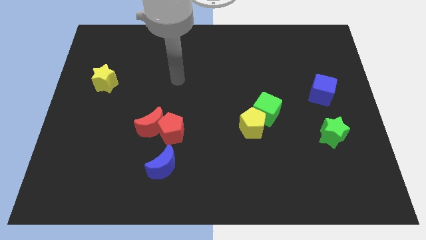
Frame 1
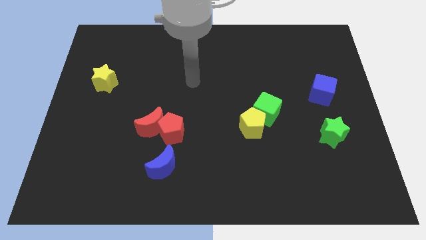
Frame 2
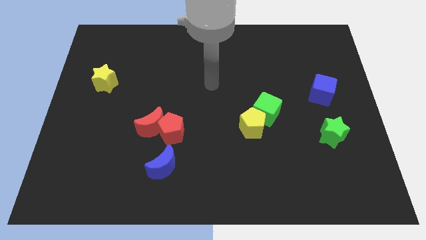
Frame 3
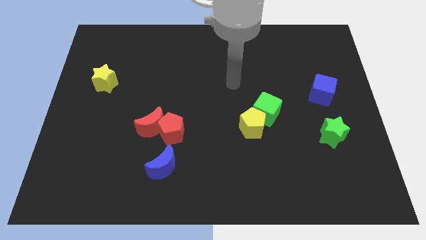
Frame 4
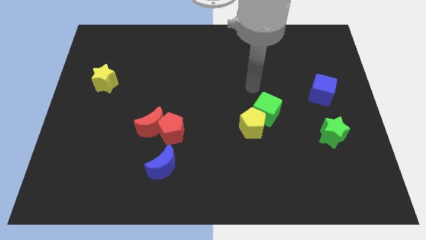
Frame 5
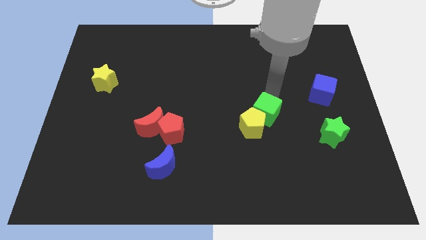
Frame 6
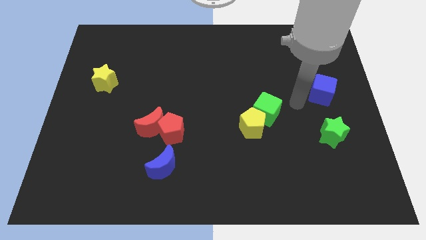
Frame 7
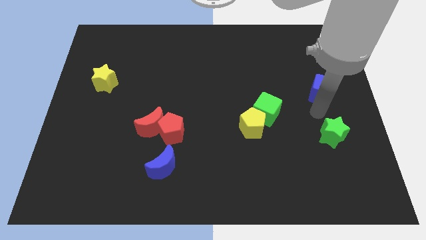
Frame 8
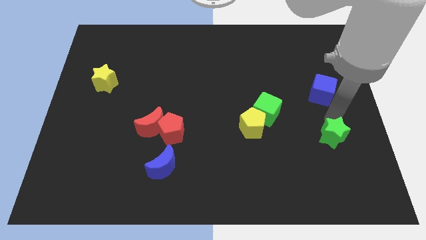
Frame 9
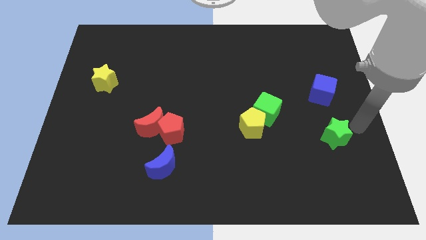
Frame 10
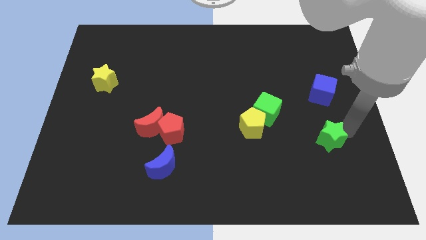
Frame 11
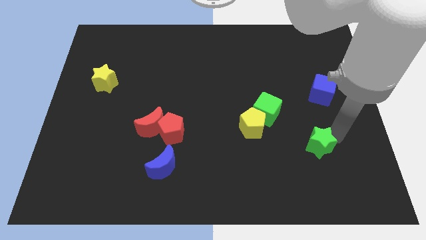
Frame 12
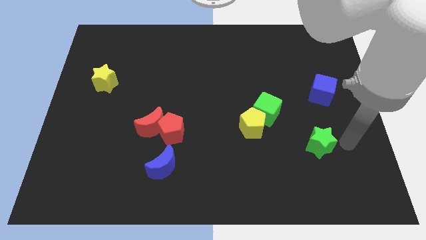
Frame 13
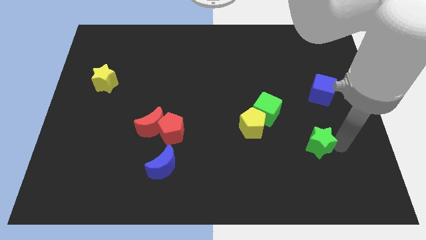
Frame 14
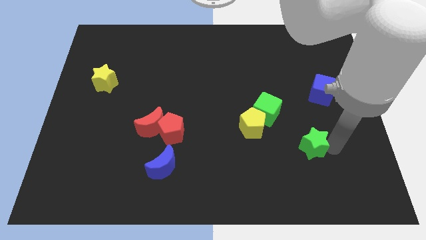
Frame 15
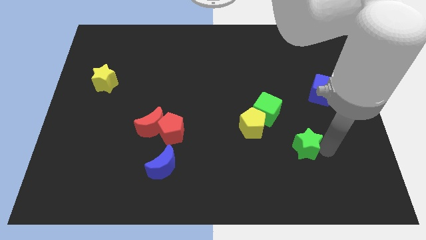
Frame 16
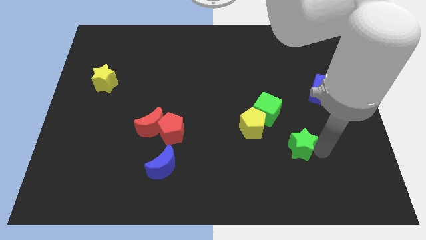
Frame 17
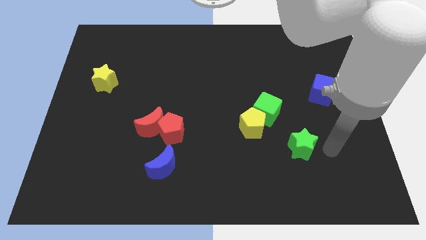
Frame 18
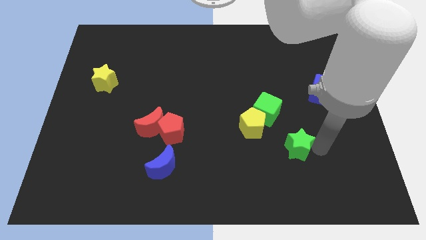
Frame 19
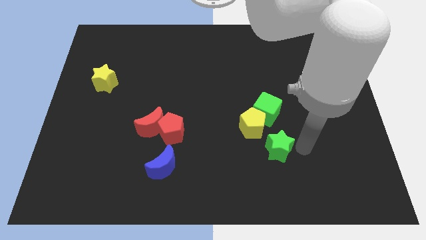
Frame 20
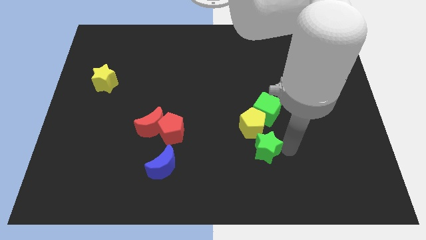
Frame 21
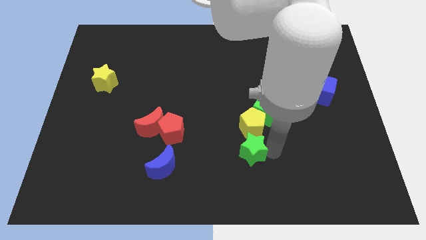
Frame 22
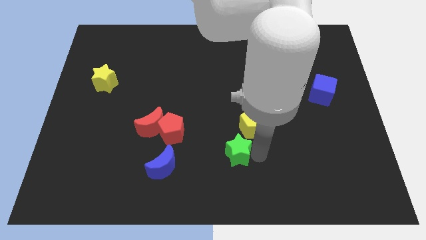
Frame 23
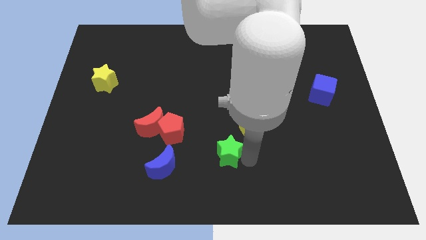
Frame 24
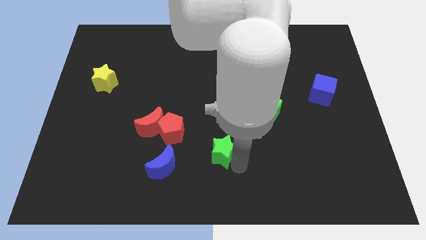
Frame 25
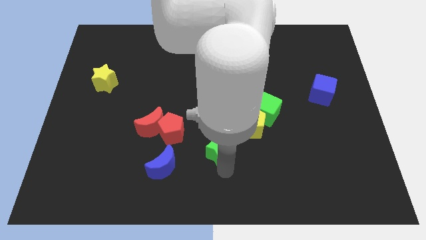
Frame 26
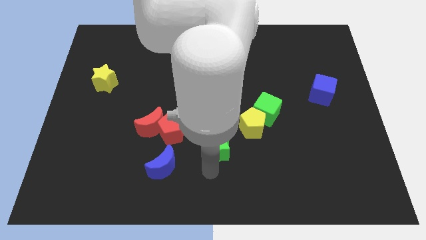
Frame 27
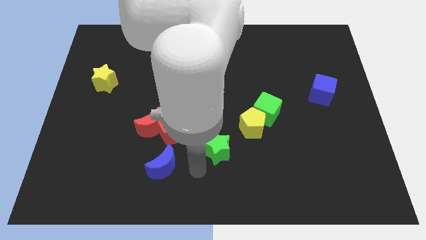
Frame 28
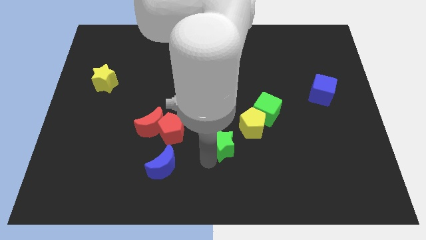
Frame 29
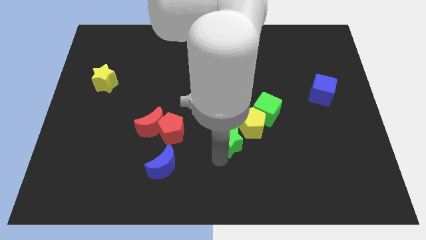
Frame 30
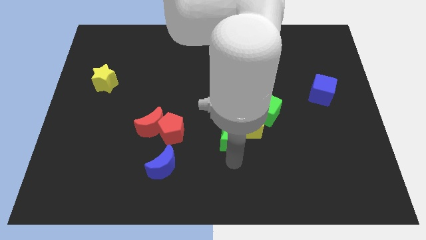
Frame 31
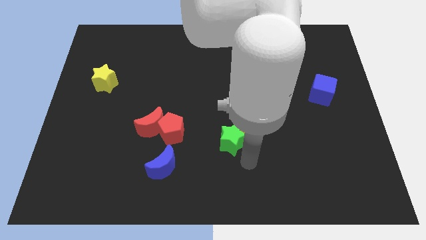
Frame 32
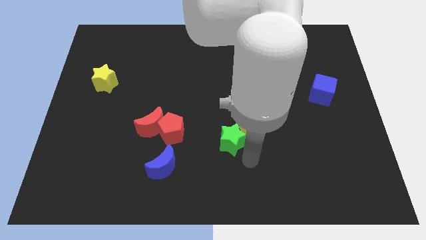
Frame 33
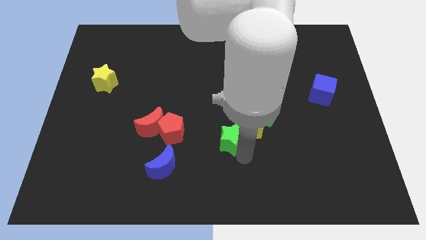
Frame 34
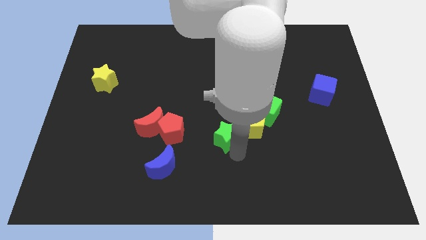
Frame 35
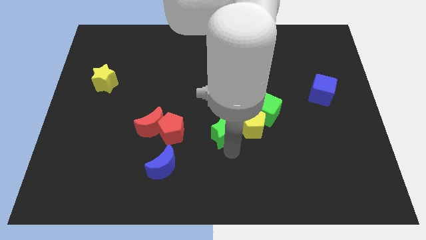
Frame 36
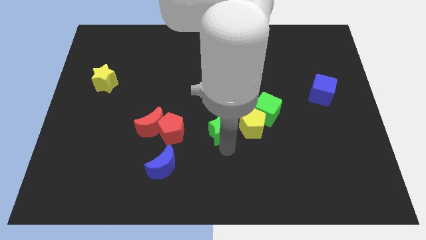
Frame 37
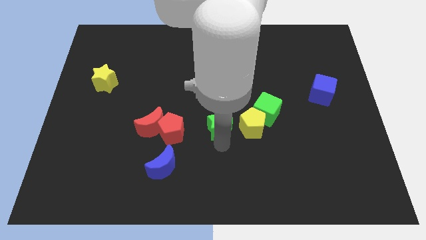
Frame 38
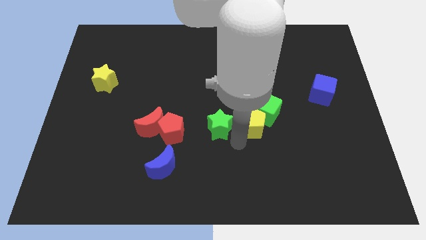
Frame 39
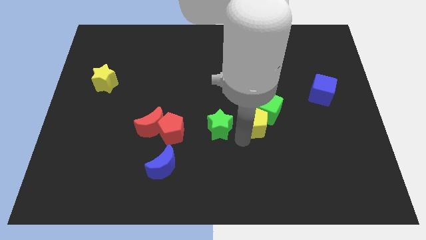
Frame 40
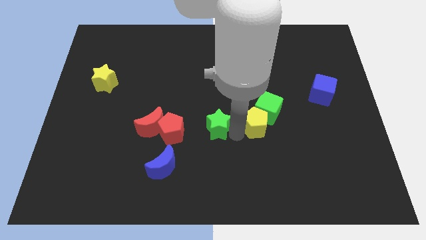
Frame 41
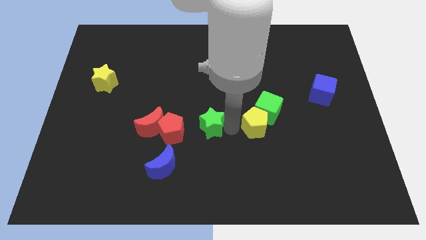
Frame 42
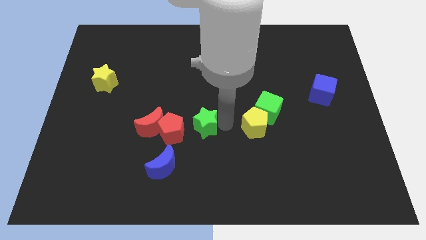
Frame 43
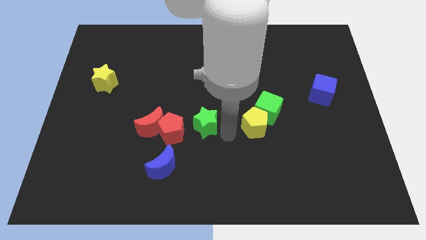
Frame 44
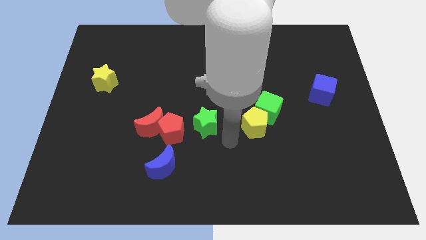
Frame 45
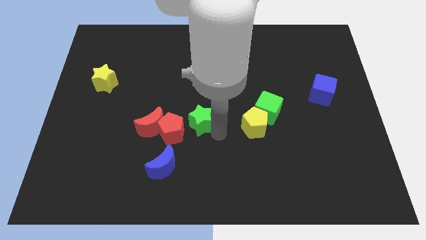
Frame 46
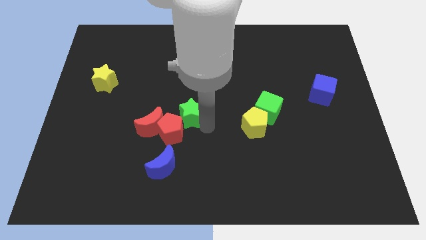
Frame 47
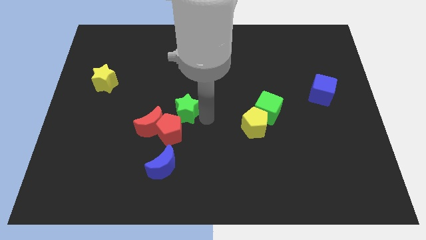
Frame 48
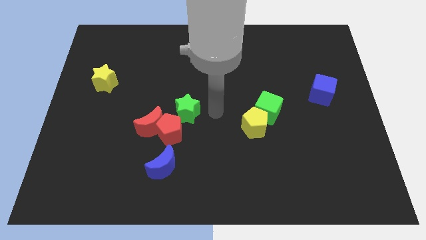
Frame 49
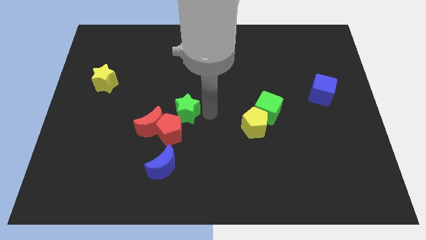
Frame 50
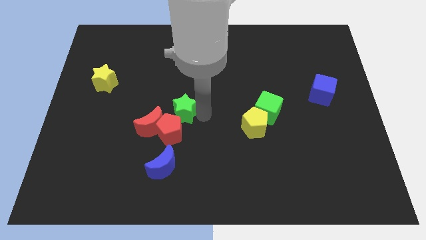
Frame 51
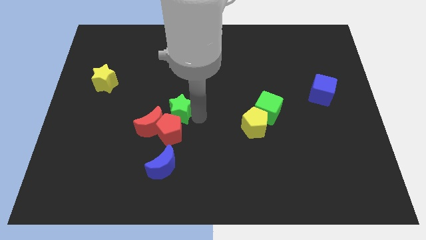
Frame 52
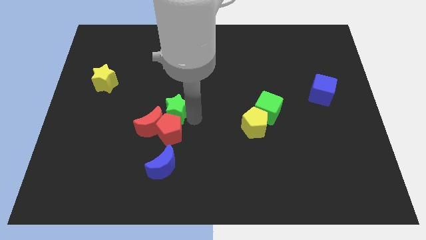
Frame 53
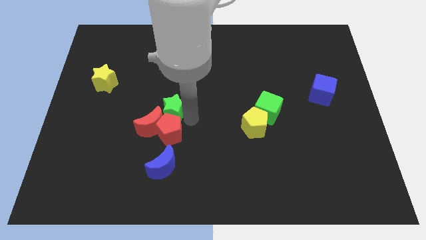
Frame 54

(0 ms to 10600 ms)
push the green star close to the red moon

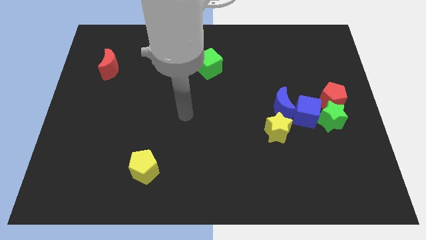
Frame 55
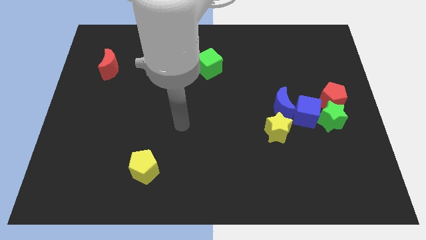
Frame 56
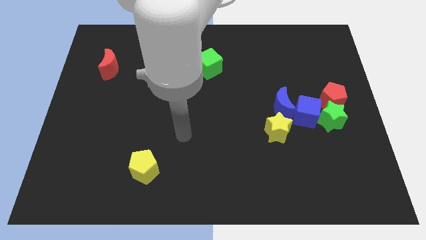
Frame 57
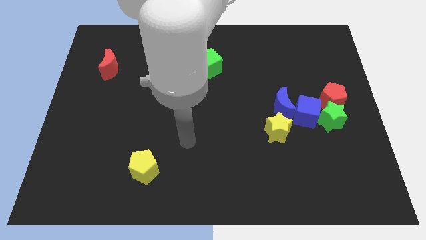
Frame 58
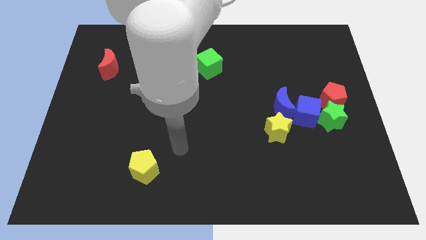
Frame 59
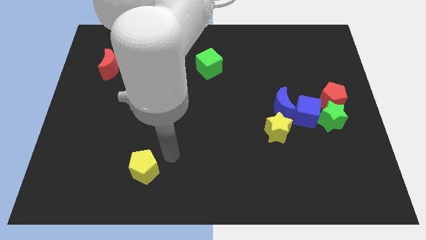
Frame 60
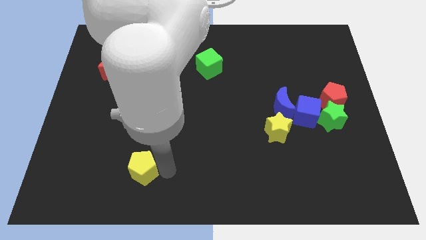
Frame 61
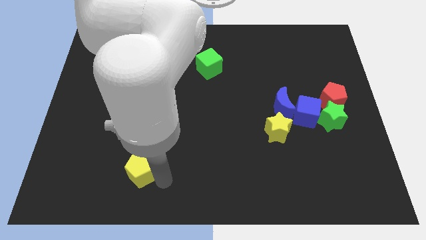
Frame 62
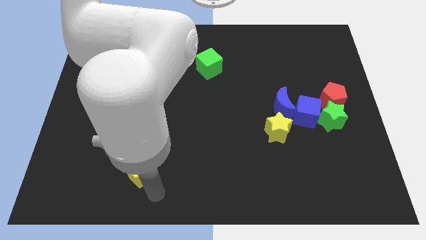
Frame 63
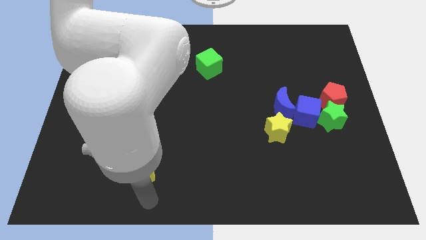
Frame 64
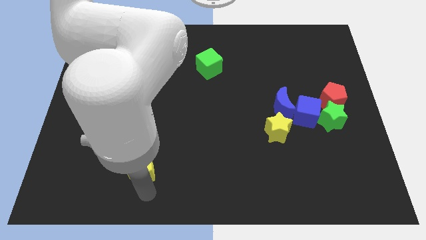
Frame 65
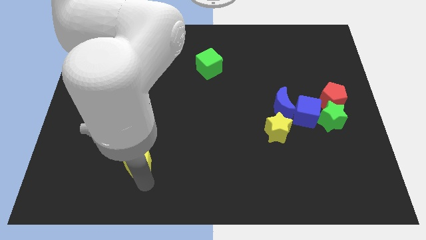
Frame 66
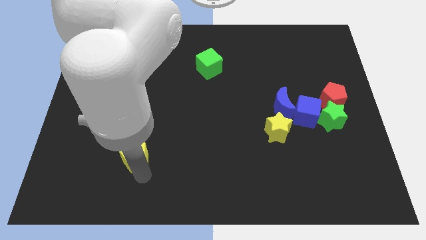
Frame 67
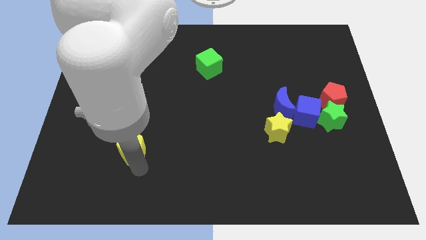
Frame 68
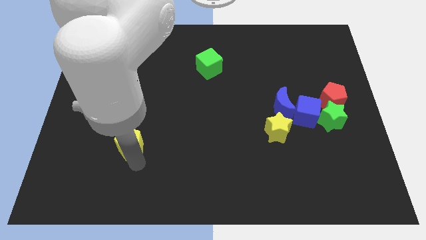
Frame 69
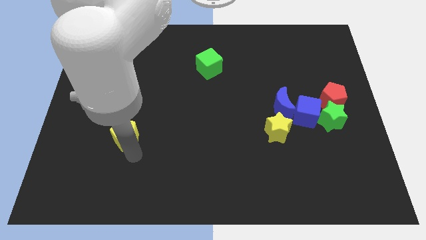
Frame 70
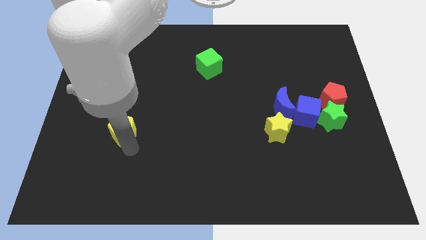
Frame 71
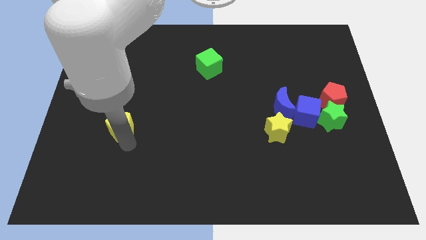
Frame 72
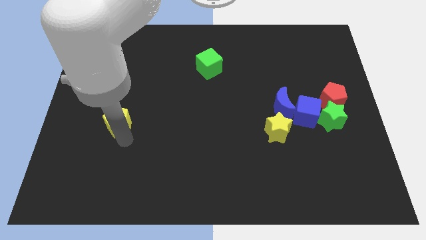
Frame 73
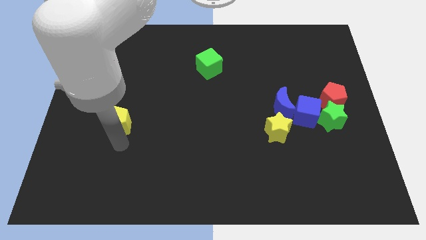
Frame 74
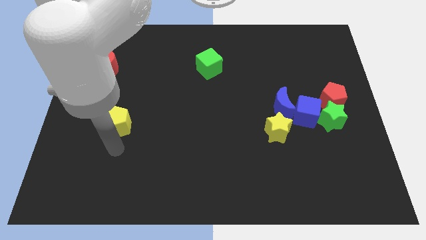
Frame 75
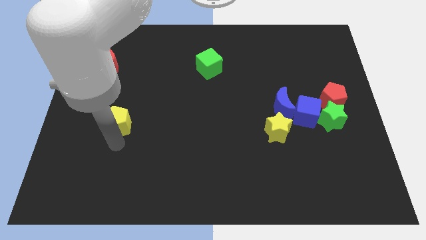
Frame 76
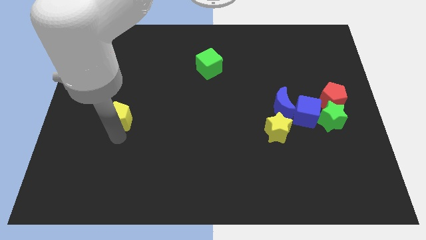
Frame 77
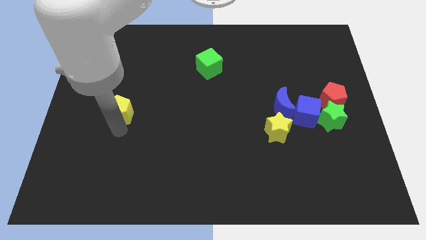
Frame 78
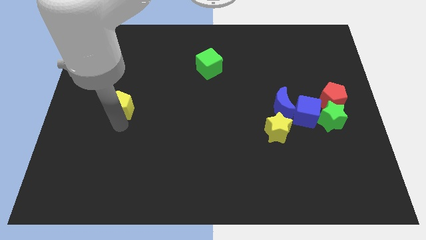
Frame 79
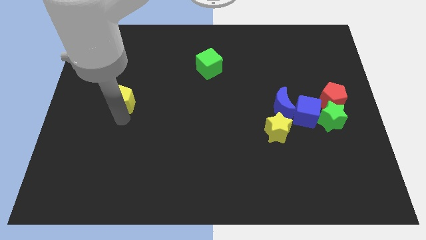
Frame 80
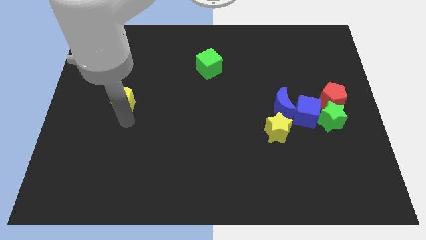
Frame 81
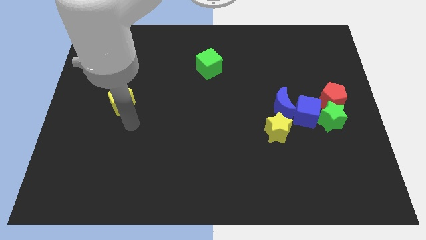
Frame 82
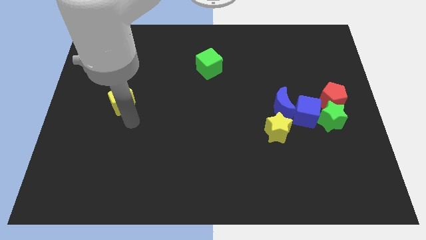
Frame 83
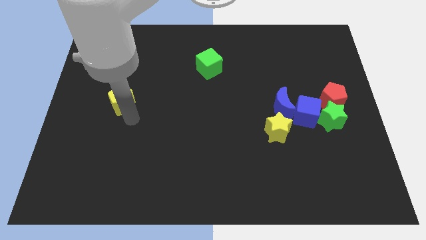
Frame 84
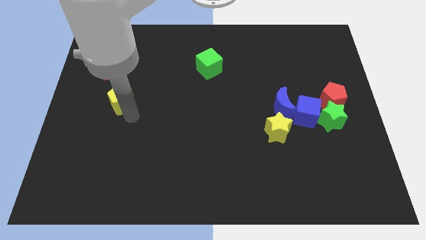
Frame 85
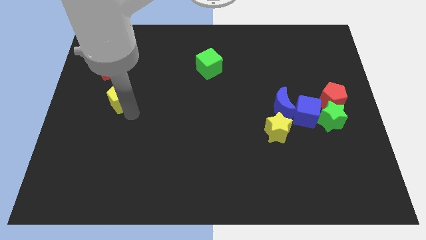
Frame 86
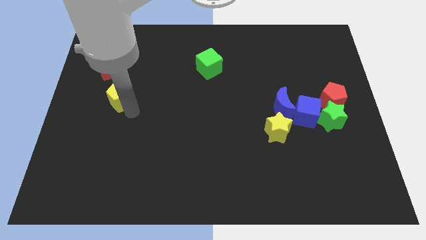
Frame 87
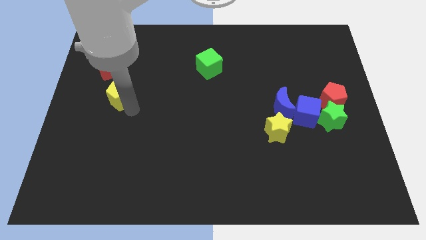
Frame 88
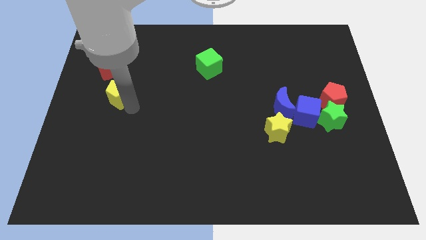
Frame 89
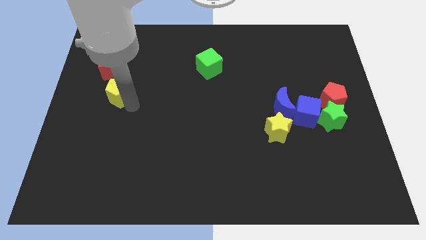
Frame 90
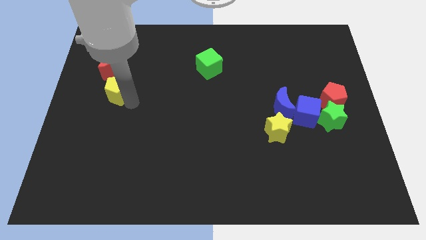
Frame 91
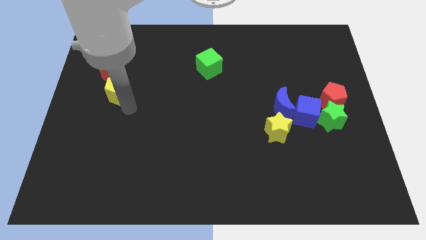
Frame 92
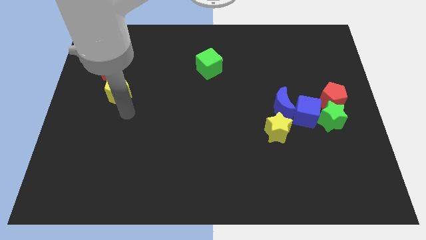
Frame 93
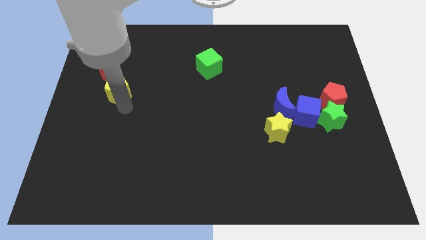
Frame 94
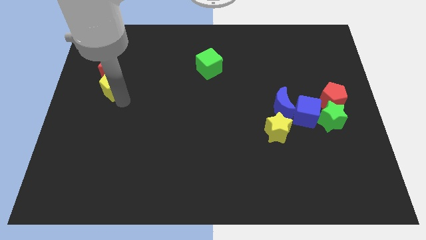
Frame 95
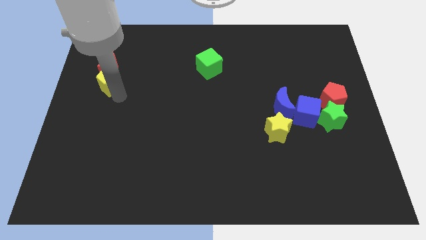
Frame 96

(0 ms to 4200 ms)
move the yellow pentagon close to the red moon
